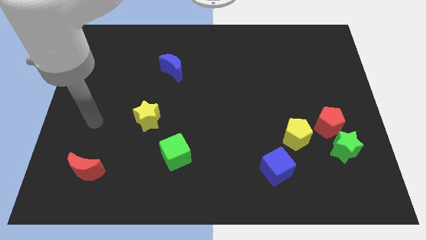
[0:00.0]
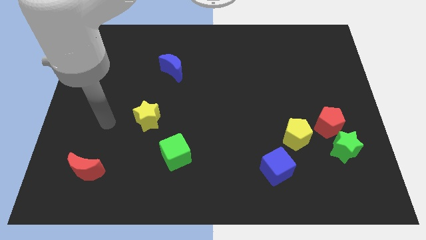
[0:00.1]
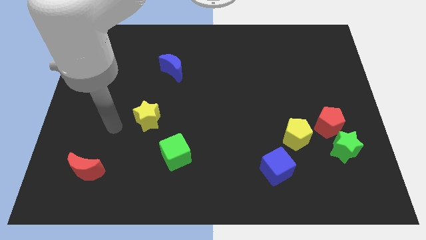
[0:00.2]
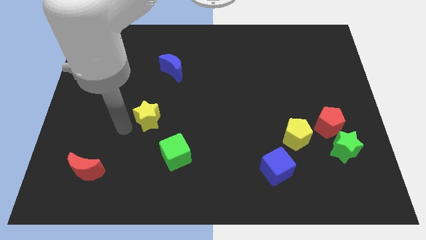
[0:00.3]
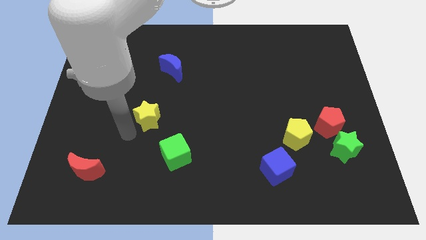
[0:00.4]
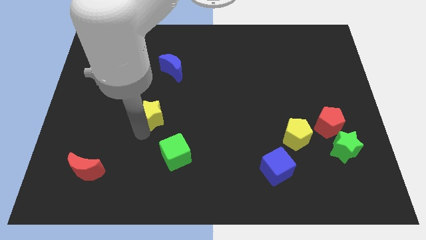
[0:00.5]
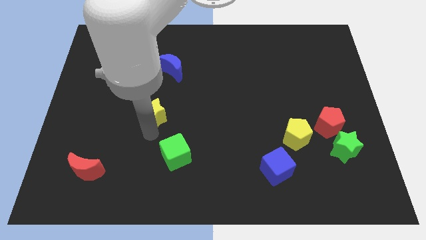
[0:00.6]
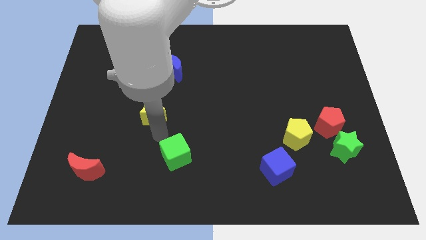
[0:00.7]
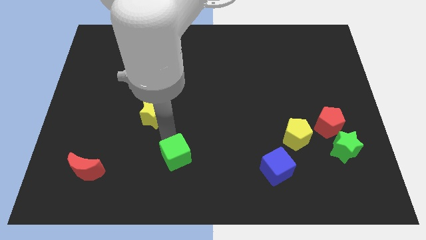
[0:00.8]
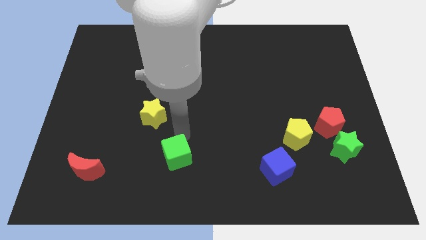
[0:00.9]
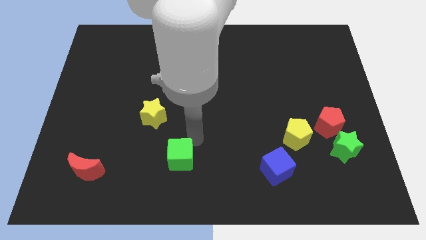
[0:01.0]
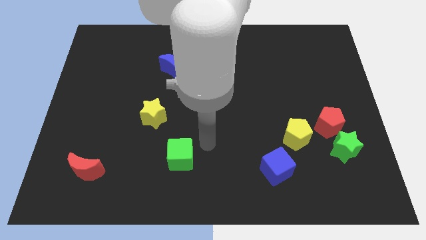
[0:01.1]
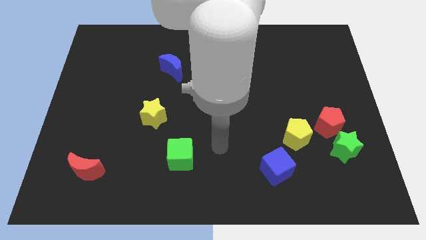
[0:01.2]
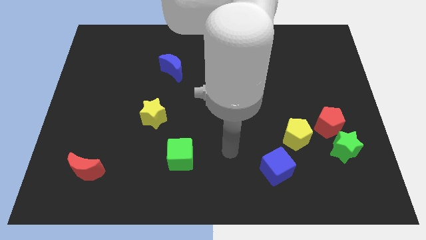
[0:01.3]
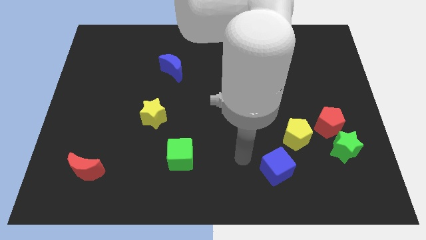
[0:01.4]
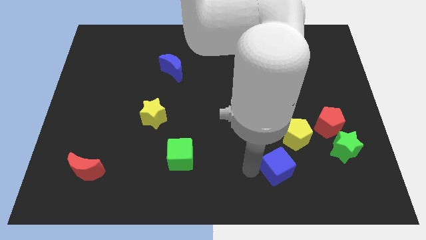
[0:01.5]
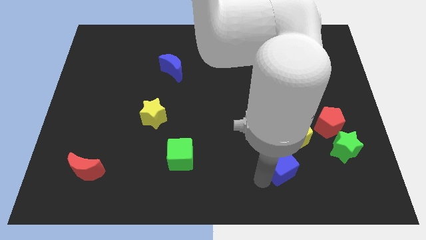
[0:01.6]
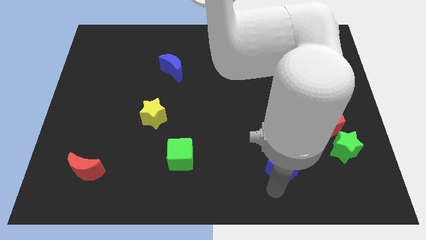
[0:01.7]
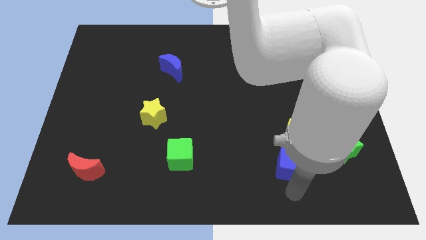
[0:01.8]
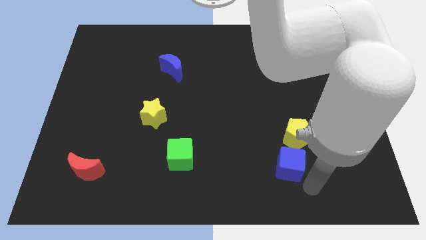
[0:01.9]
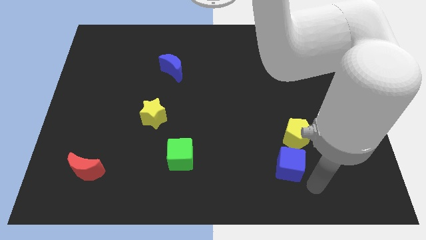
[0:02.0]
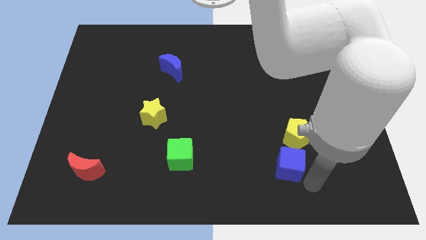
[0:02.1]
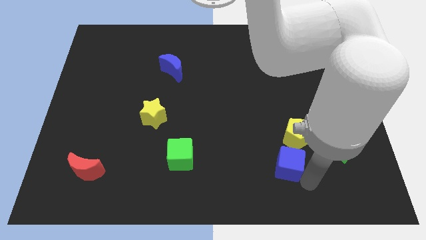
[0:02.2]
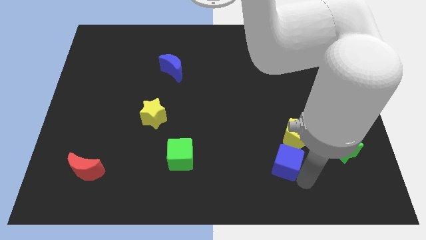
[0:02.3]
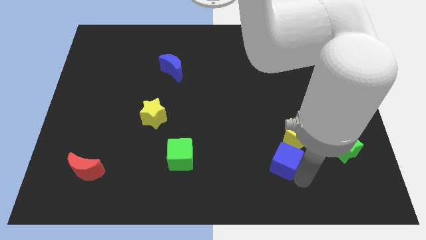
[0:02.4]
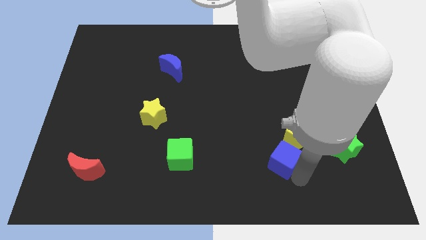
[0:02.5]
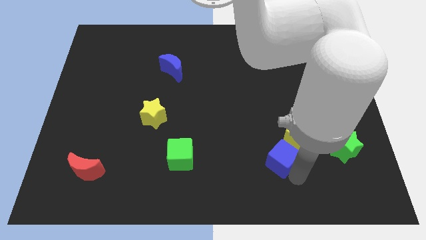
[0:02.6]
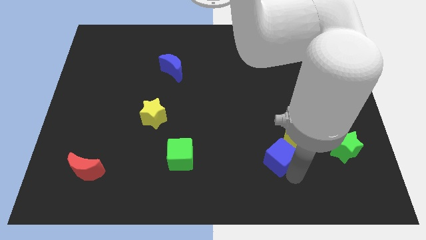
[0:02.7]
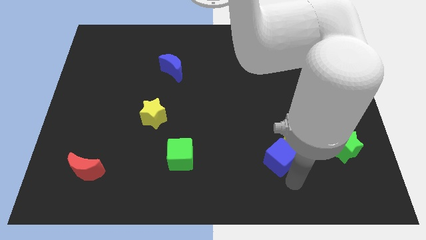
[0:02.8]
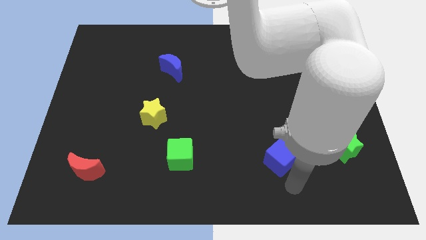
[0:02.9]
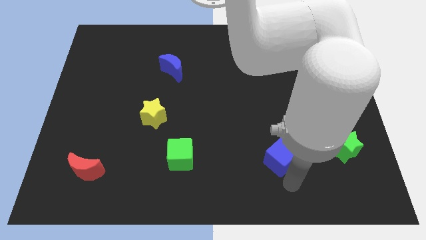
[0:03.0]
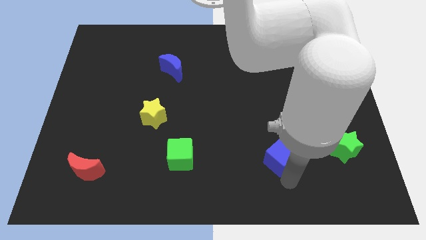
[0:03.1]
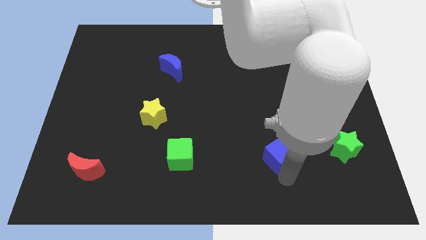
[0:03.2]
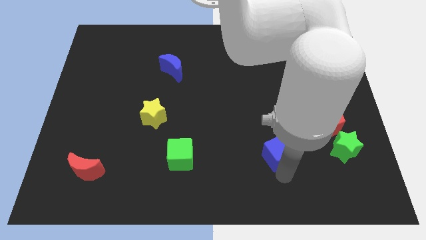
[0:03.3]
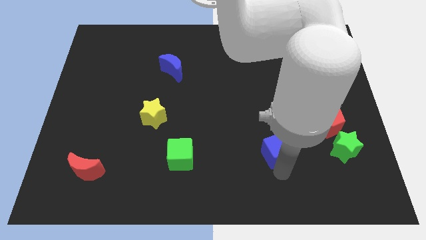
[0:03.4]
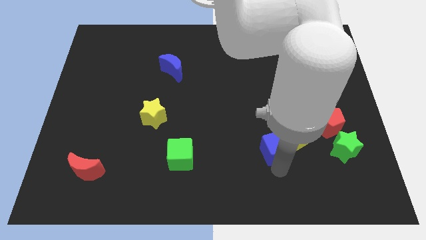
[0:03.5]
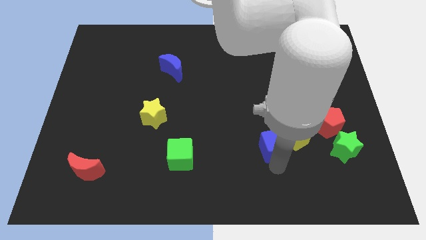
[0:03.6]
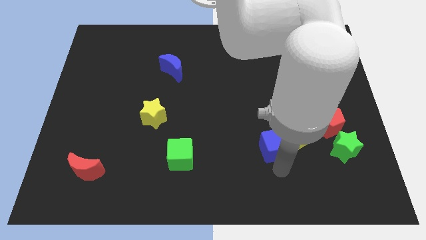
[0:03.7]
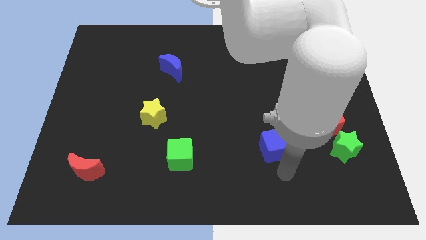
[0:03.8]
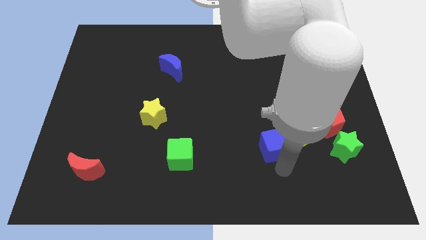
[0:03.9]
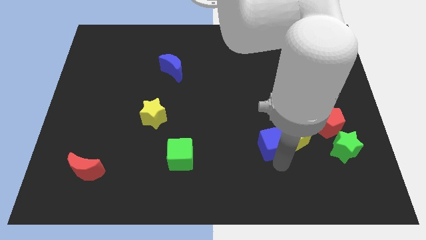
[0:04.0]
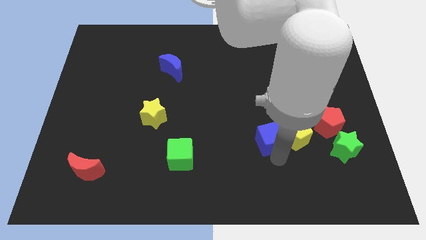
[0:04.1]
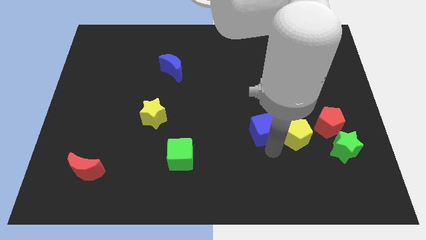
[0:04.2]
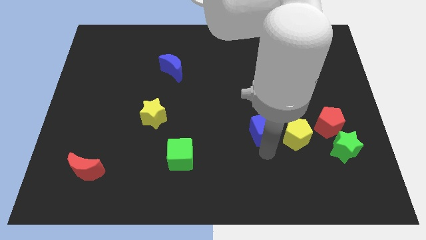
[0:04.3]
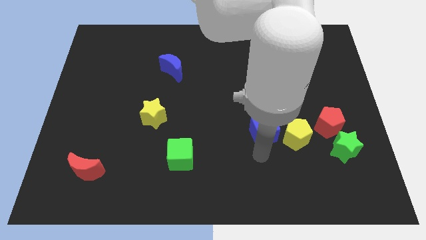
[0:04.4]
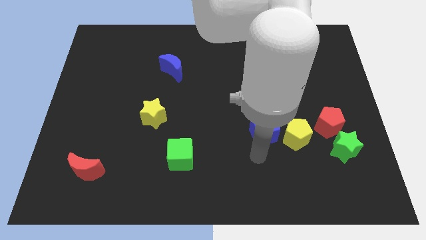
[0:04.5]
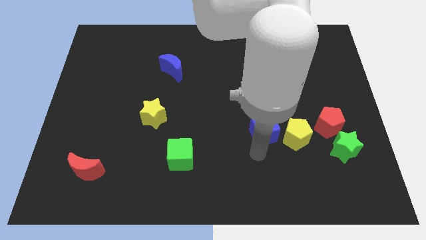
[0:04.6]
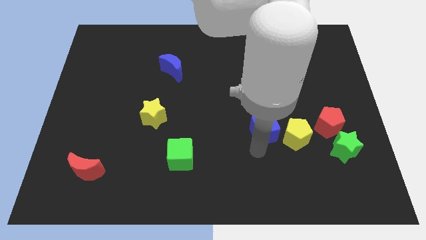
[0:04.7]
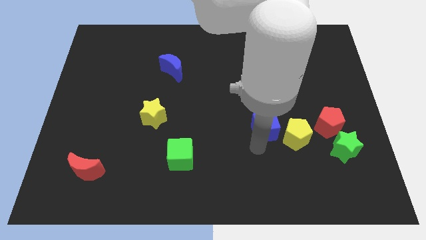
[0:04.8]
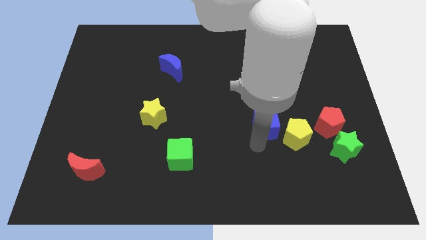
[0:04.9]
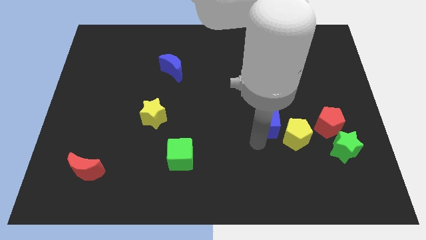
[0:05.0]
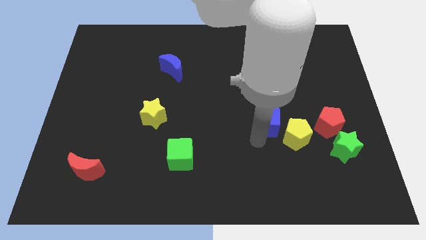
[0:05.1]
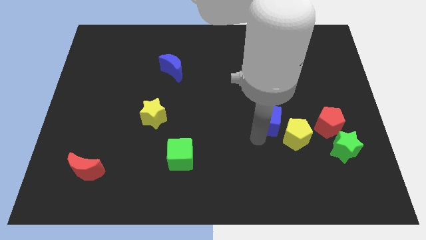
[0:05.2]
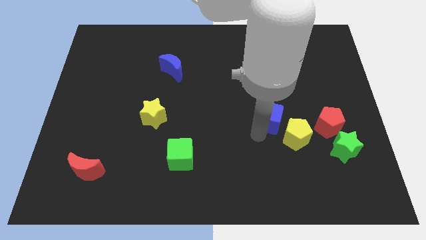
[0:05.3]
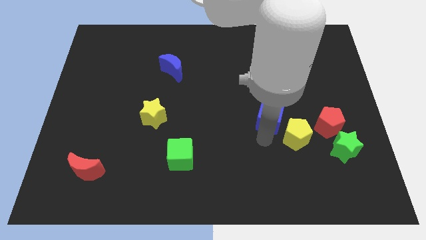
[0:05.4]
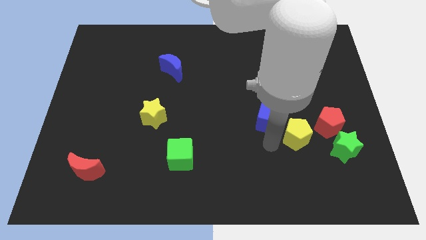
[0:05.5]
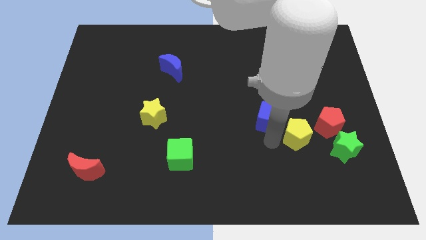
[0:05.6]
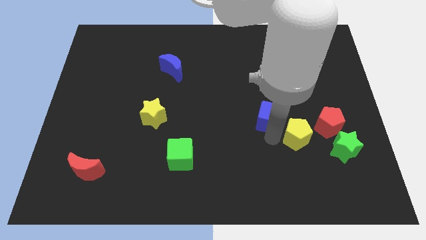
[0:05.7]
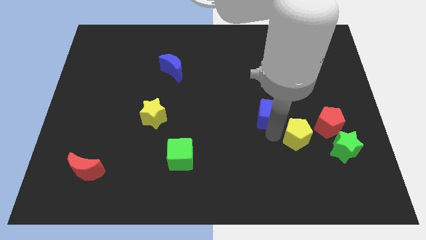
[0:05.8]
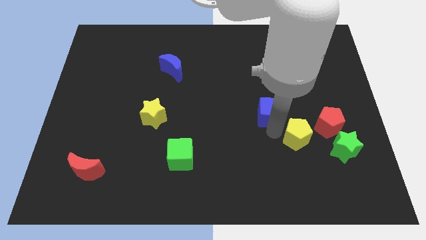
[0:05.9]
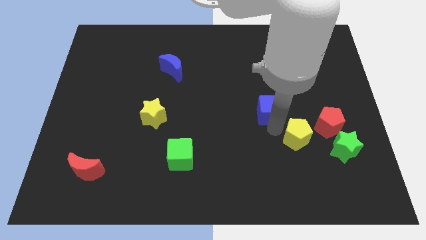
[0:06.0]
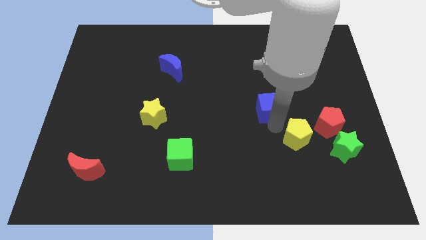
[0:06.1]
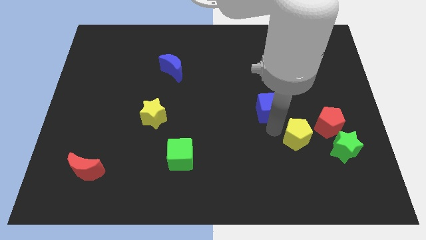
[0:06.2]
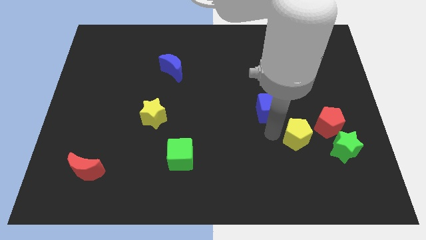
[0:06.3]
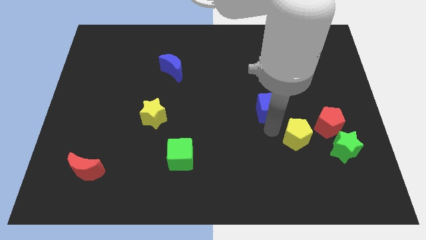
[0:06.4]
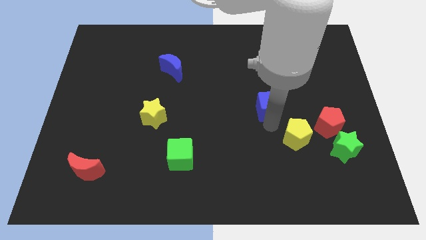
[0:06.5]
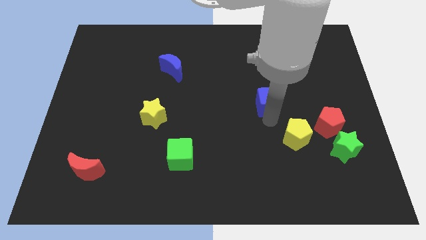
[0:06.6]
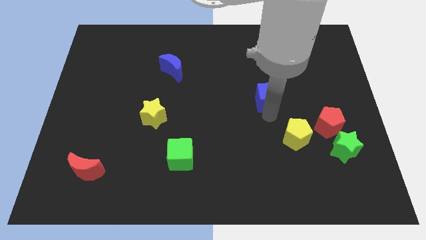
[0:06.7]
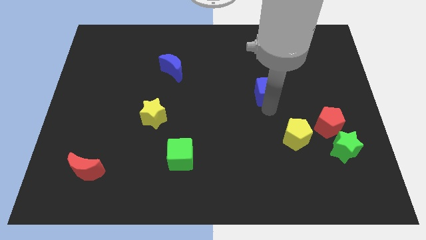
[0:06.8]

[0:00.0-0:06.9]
slide the blue cube upwards

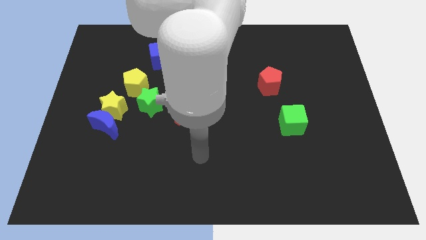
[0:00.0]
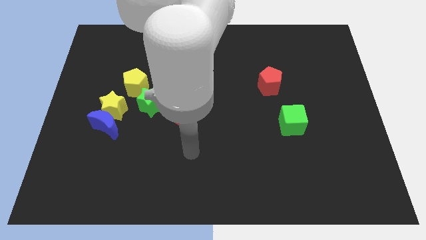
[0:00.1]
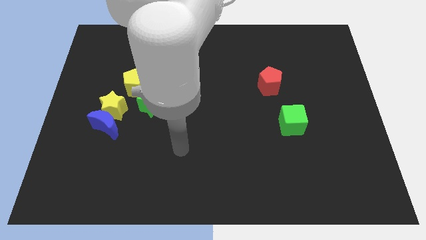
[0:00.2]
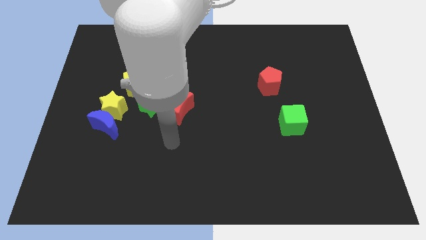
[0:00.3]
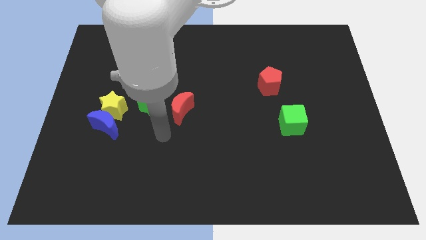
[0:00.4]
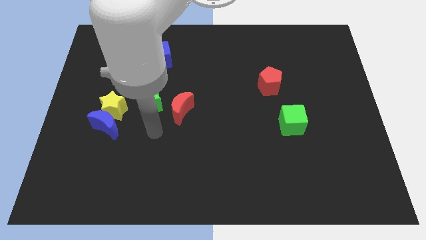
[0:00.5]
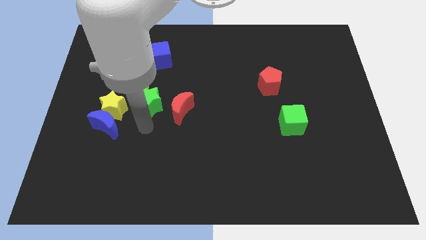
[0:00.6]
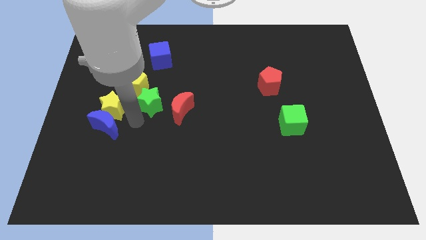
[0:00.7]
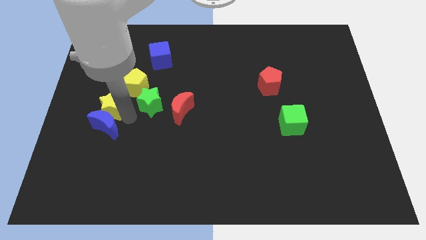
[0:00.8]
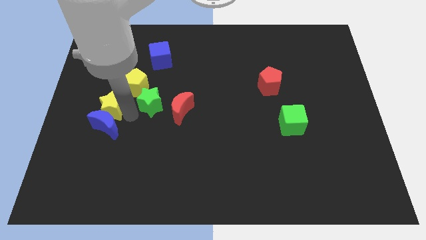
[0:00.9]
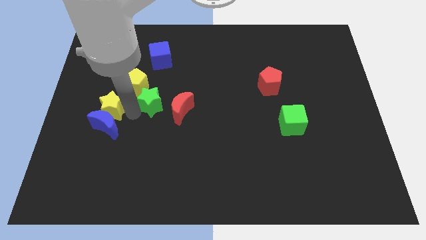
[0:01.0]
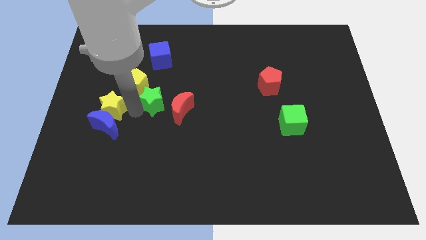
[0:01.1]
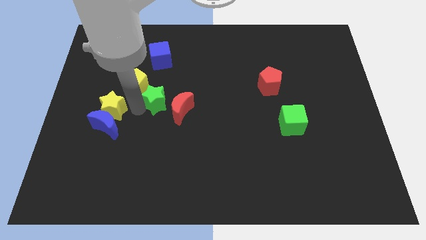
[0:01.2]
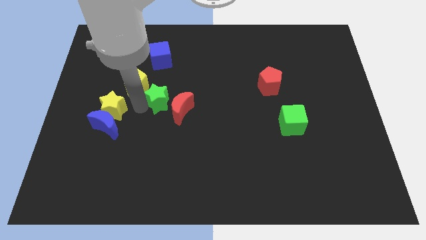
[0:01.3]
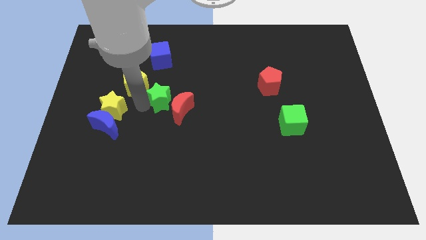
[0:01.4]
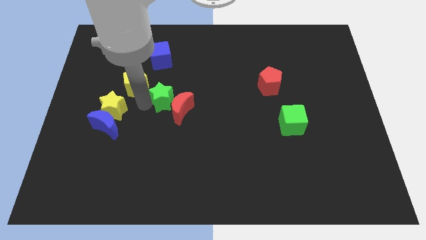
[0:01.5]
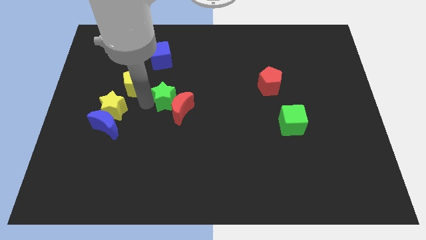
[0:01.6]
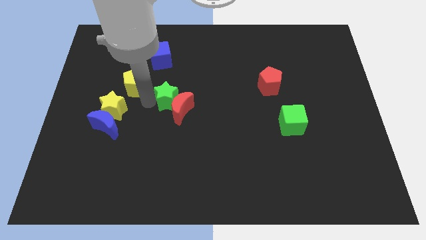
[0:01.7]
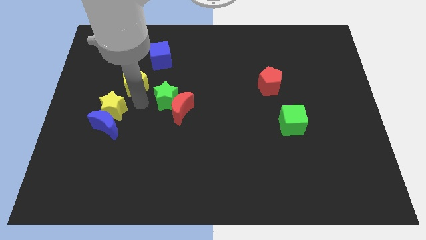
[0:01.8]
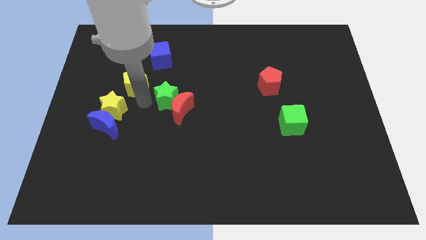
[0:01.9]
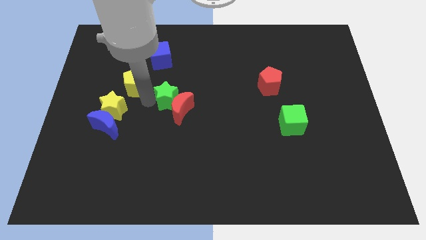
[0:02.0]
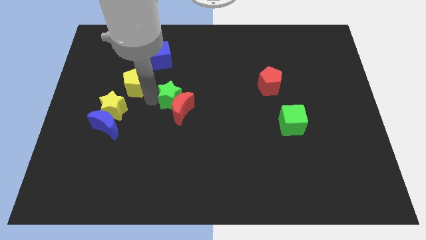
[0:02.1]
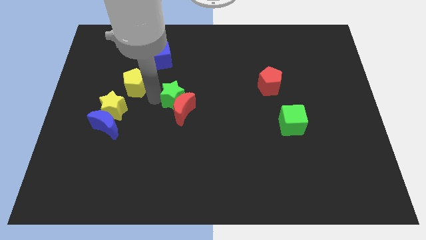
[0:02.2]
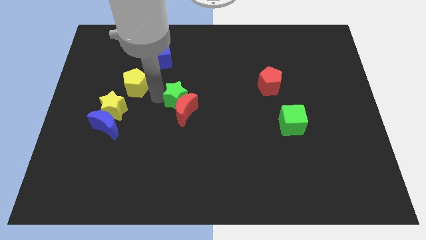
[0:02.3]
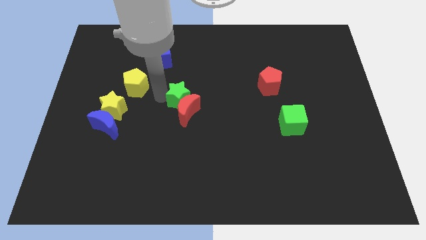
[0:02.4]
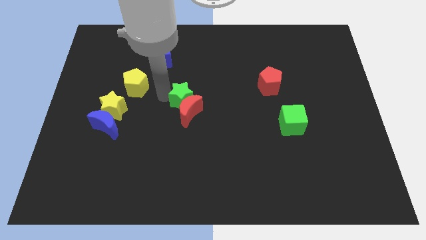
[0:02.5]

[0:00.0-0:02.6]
slide the green star to the right a bit
